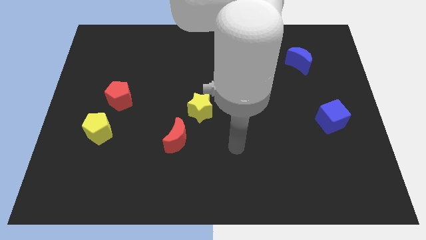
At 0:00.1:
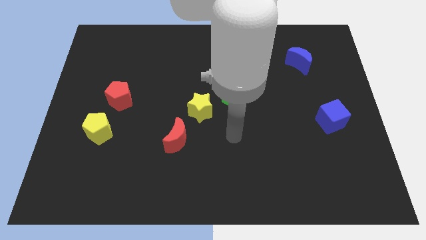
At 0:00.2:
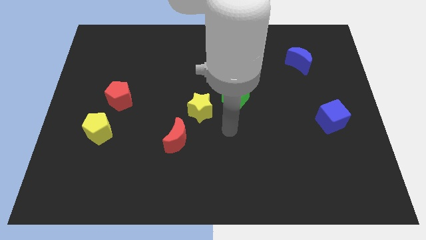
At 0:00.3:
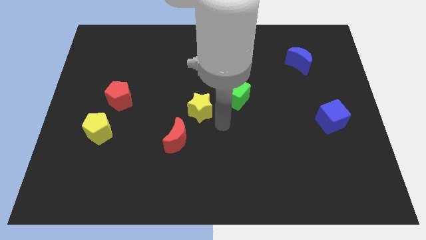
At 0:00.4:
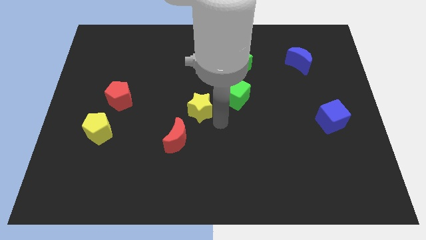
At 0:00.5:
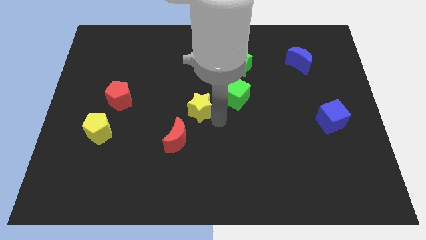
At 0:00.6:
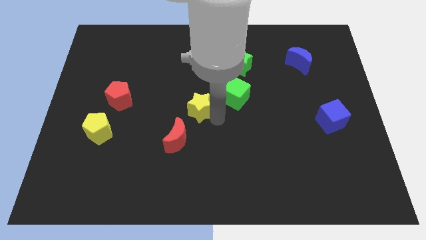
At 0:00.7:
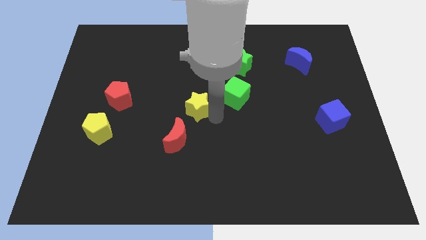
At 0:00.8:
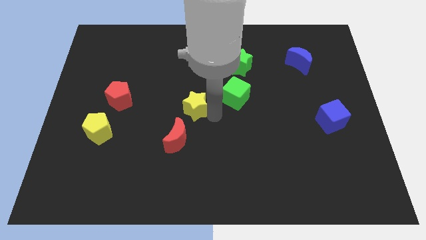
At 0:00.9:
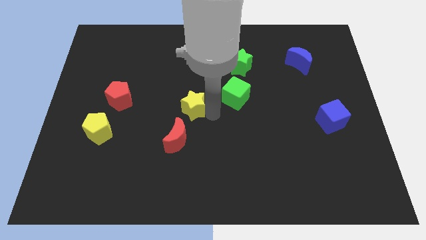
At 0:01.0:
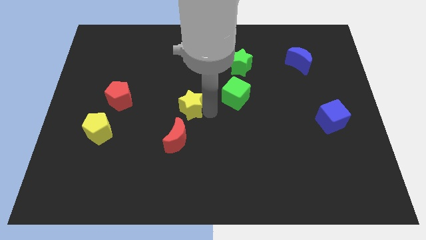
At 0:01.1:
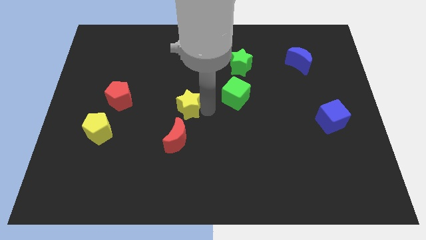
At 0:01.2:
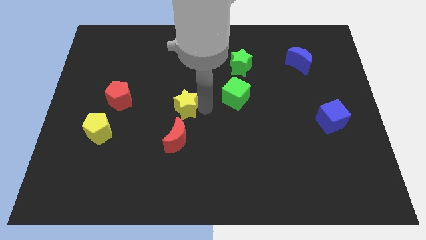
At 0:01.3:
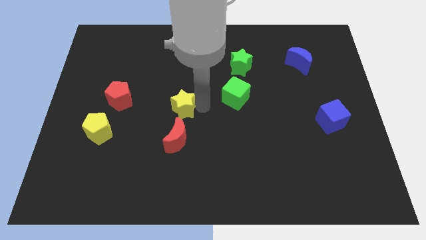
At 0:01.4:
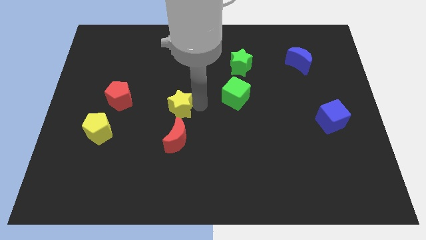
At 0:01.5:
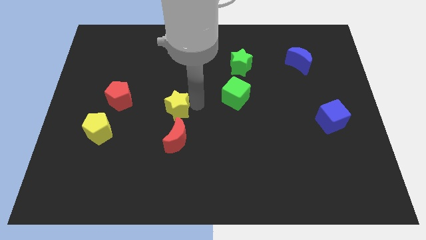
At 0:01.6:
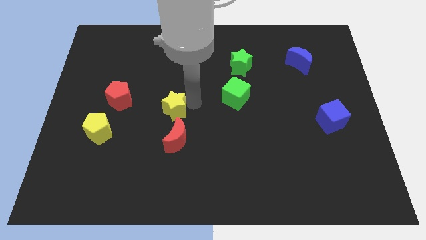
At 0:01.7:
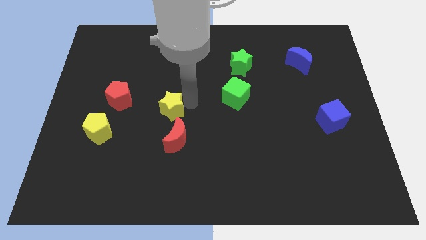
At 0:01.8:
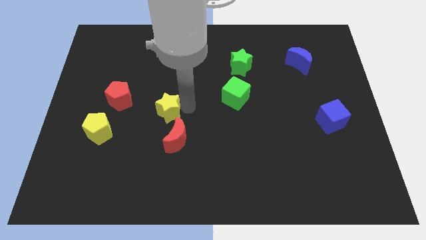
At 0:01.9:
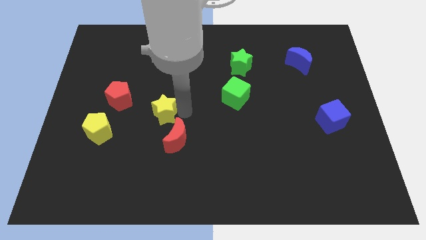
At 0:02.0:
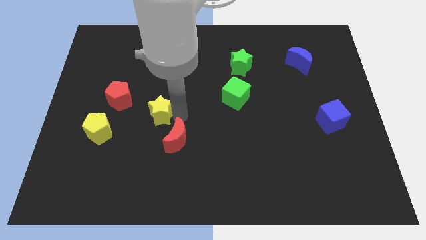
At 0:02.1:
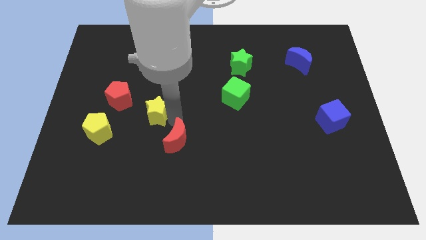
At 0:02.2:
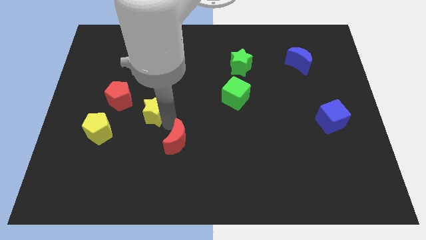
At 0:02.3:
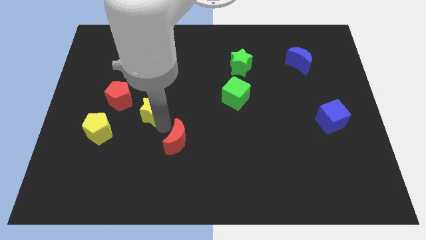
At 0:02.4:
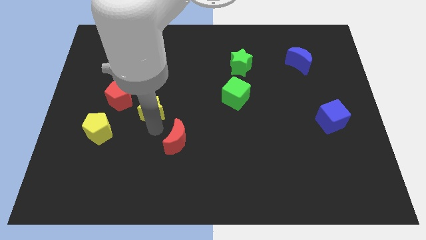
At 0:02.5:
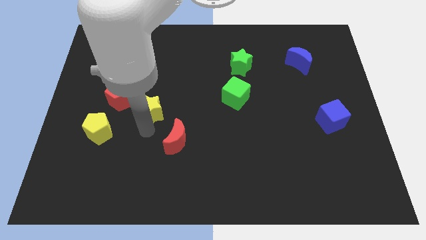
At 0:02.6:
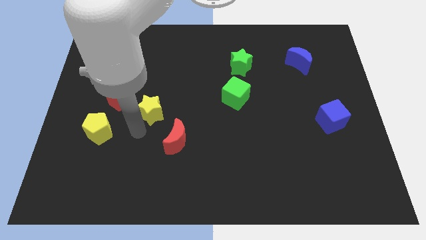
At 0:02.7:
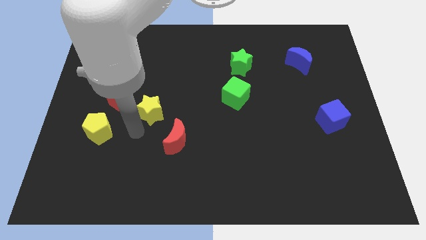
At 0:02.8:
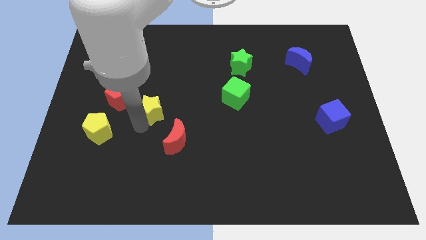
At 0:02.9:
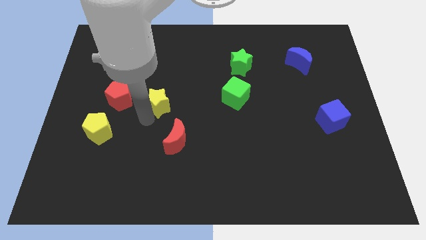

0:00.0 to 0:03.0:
slightly push the yellow star diagonally upwards and left

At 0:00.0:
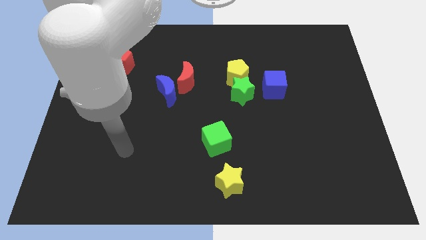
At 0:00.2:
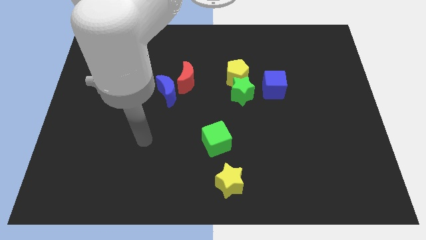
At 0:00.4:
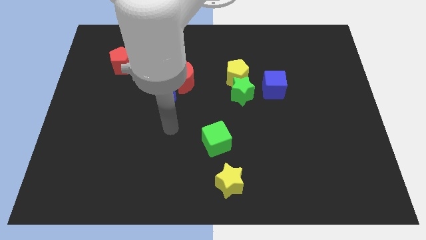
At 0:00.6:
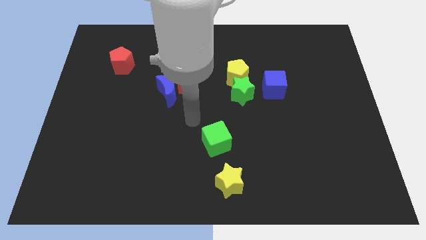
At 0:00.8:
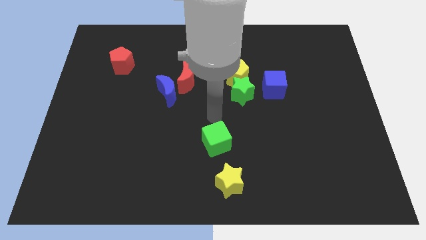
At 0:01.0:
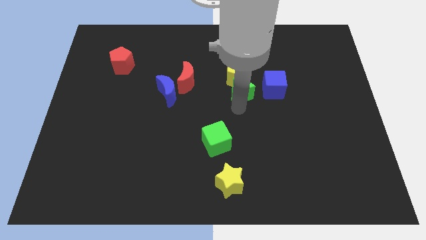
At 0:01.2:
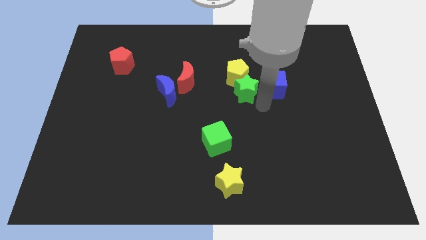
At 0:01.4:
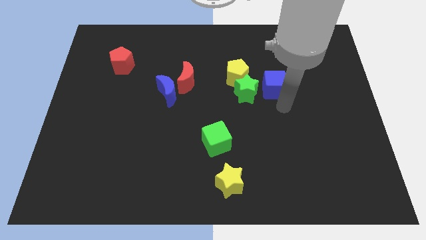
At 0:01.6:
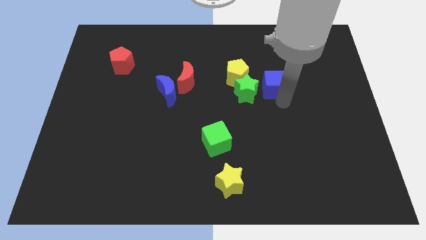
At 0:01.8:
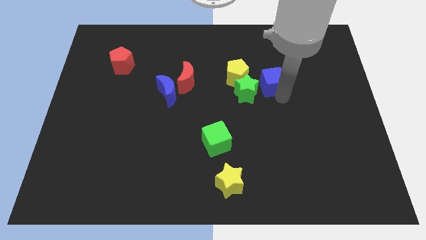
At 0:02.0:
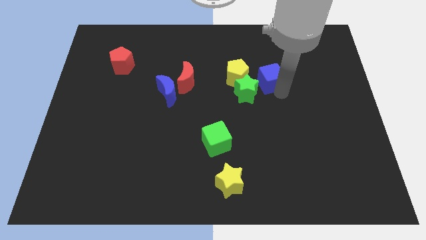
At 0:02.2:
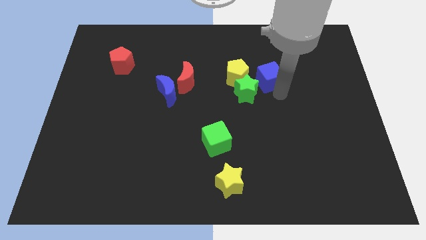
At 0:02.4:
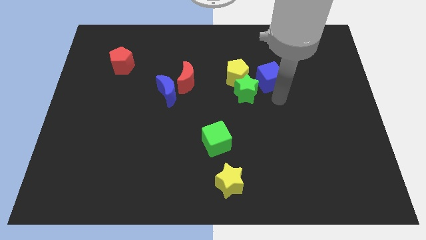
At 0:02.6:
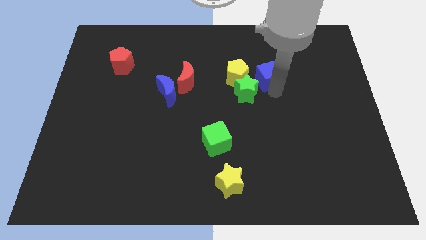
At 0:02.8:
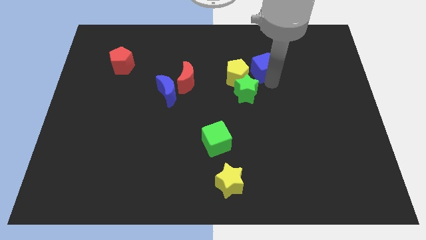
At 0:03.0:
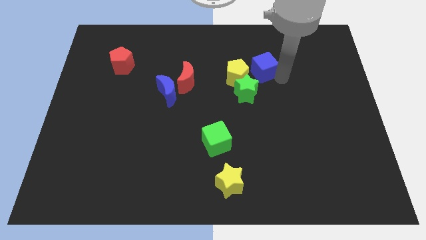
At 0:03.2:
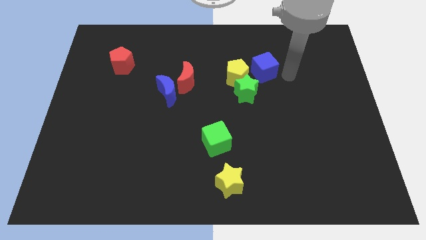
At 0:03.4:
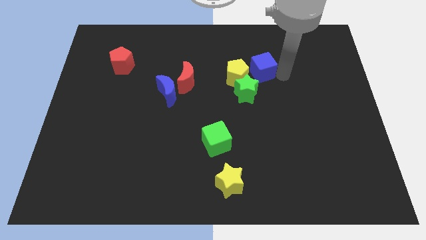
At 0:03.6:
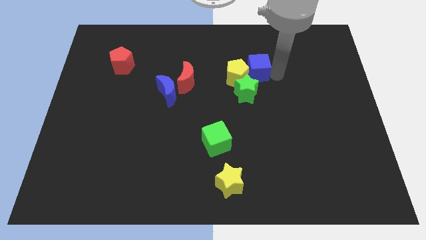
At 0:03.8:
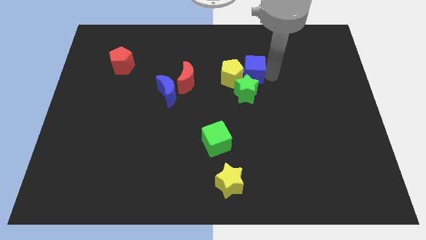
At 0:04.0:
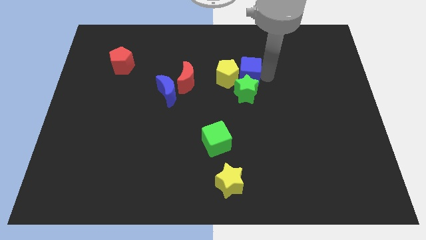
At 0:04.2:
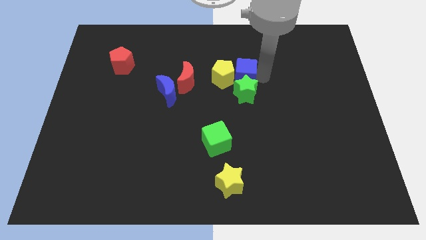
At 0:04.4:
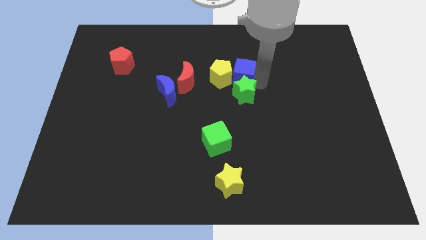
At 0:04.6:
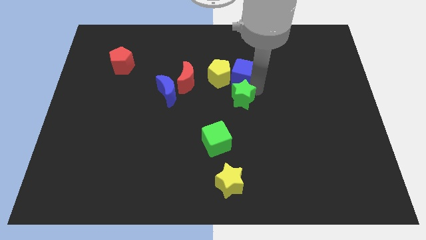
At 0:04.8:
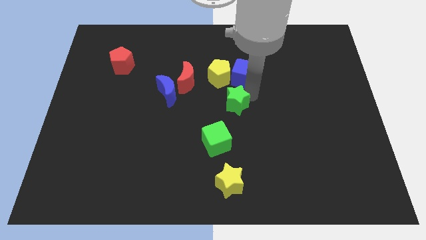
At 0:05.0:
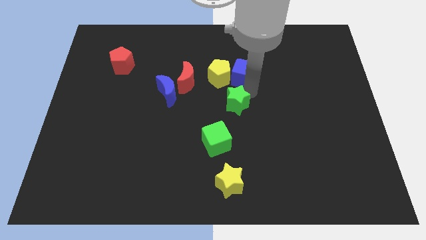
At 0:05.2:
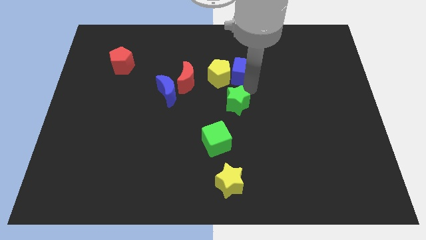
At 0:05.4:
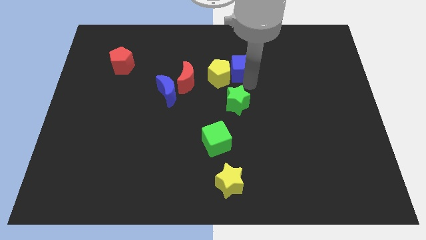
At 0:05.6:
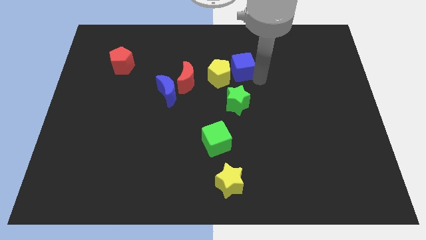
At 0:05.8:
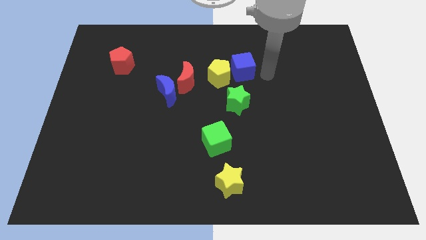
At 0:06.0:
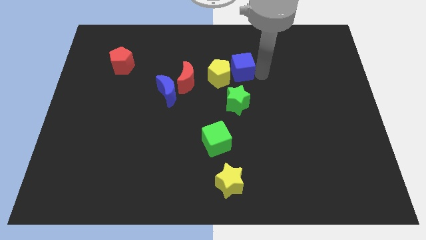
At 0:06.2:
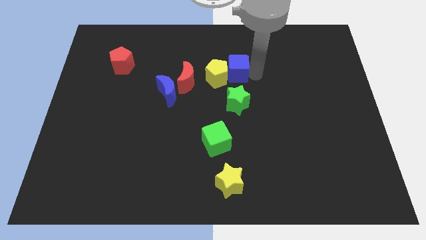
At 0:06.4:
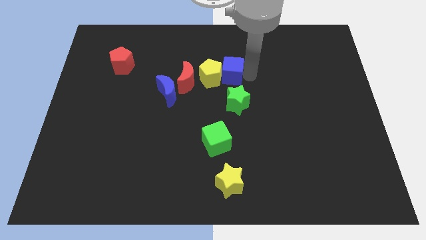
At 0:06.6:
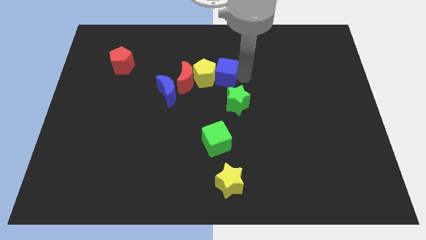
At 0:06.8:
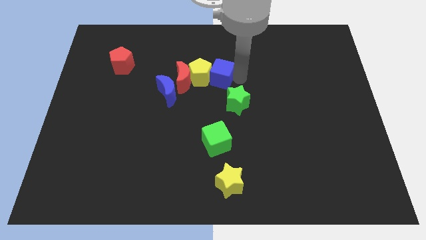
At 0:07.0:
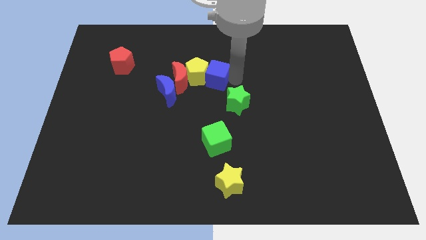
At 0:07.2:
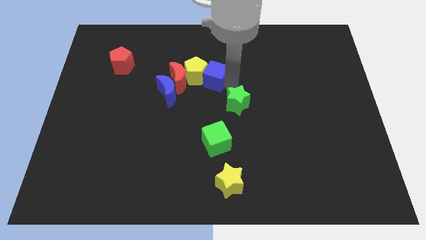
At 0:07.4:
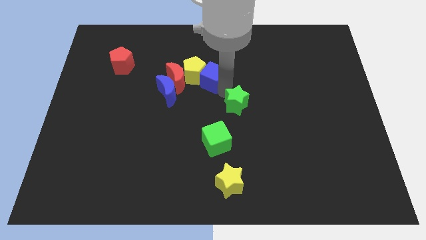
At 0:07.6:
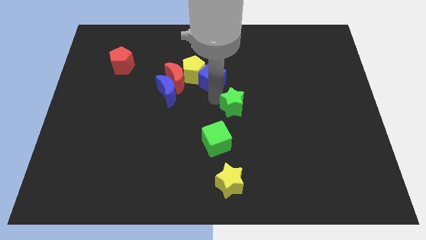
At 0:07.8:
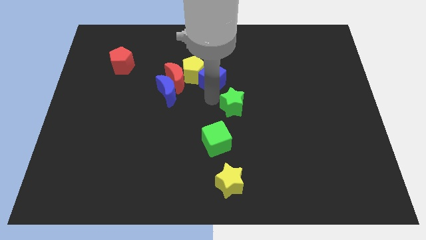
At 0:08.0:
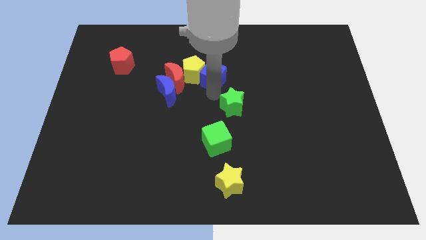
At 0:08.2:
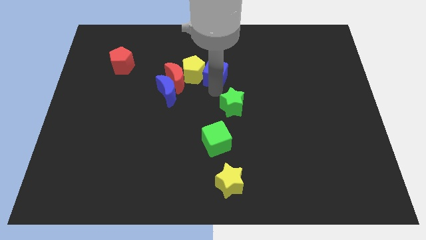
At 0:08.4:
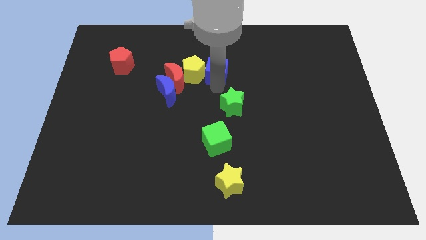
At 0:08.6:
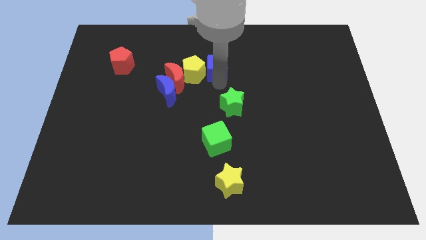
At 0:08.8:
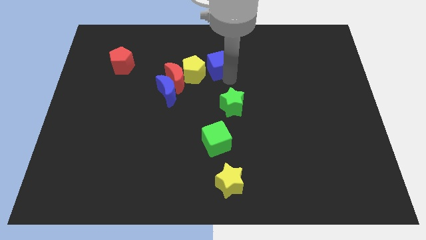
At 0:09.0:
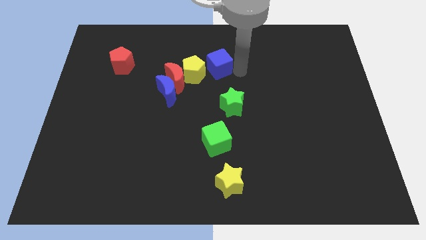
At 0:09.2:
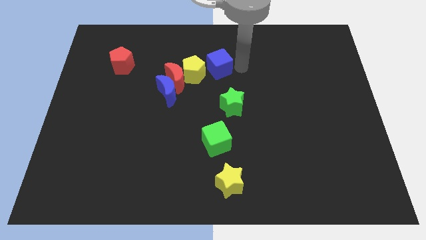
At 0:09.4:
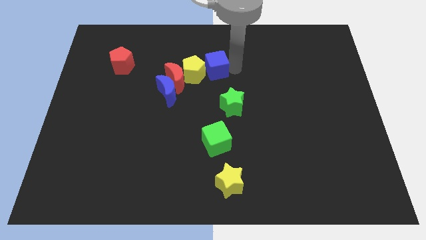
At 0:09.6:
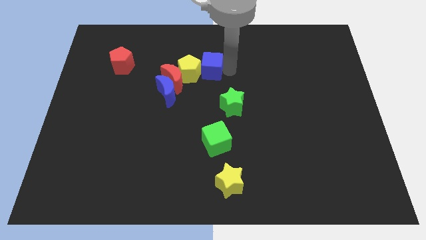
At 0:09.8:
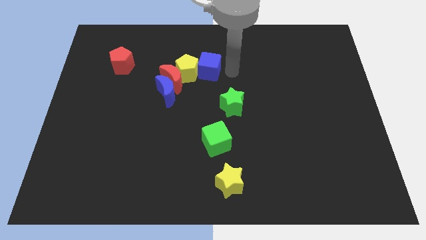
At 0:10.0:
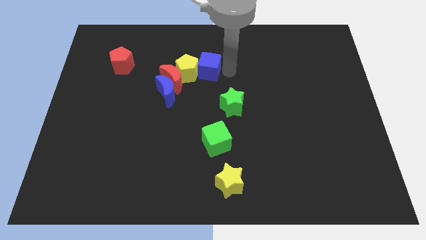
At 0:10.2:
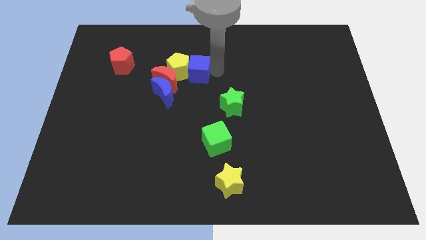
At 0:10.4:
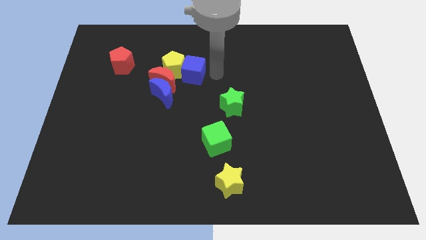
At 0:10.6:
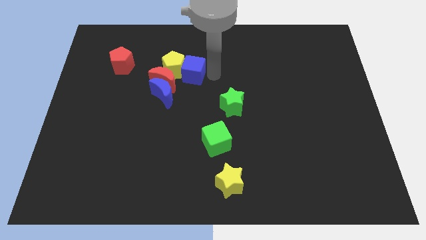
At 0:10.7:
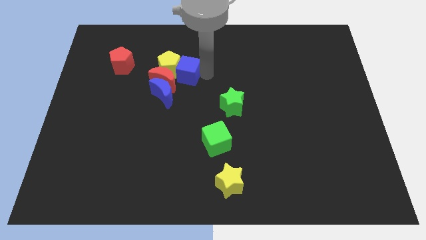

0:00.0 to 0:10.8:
slide the blue cube to the left
